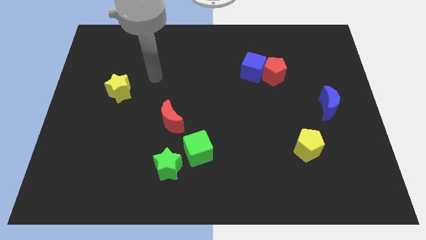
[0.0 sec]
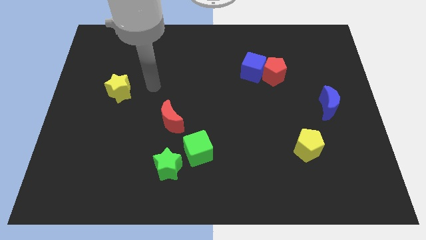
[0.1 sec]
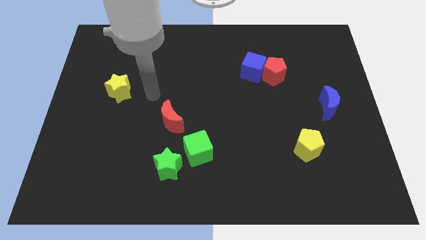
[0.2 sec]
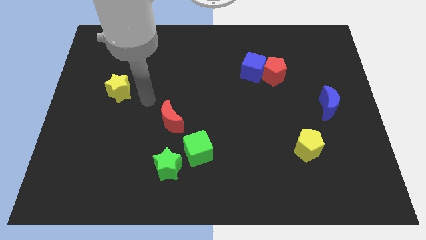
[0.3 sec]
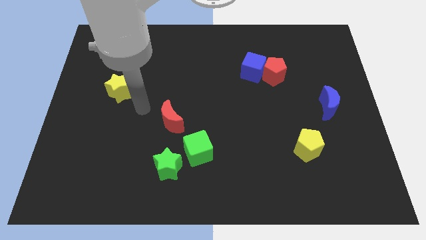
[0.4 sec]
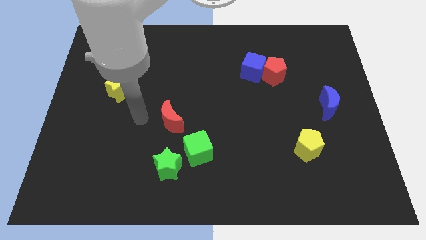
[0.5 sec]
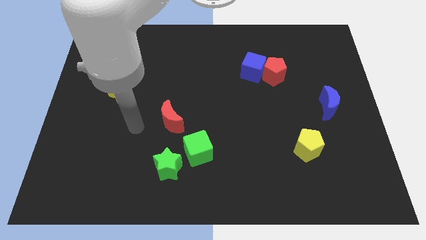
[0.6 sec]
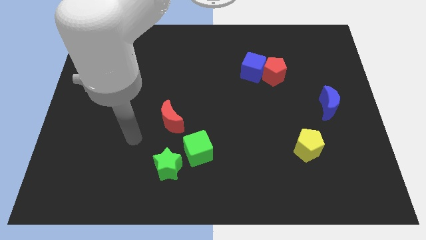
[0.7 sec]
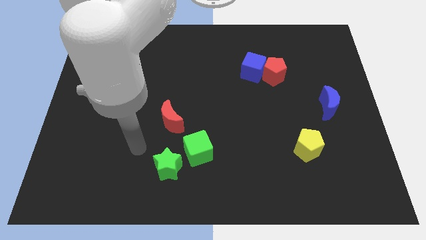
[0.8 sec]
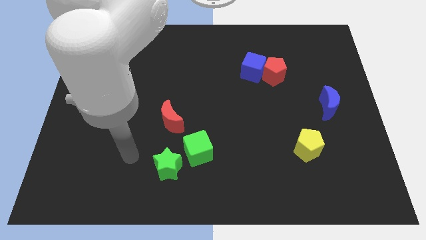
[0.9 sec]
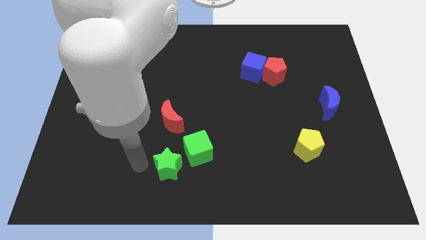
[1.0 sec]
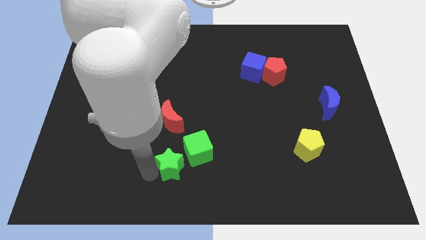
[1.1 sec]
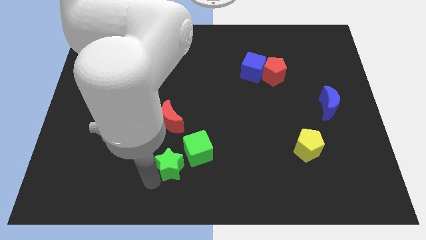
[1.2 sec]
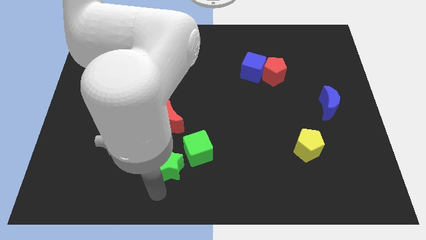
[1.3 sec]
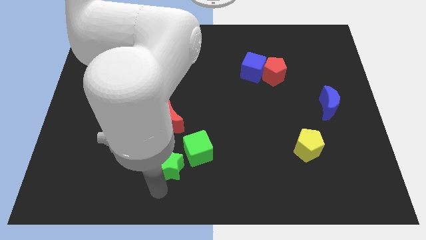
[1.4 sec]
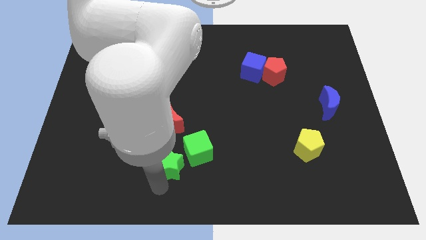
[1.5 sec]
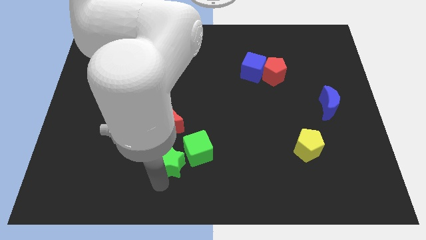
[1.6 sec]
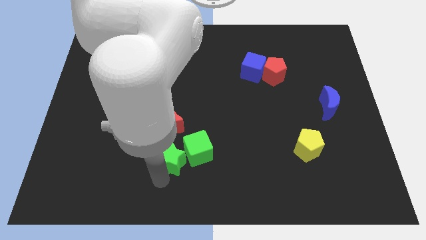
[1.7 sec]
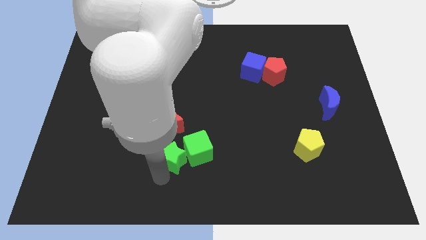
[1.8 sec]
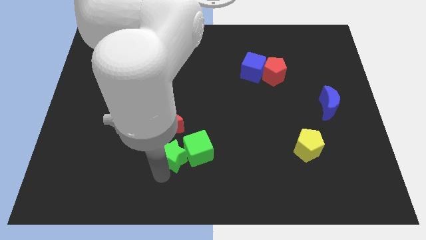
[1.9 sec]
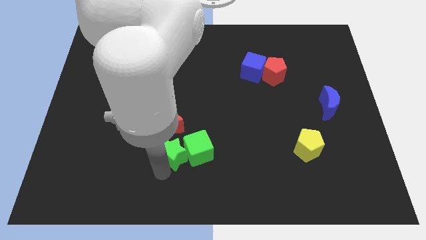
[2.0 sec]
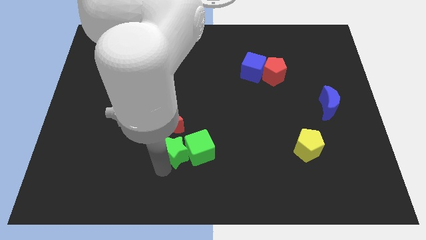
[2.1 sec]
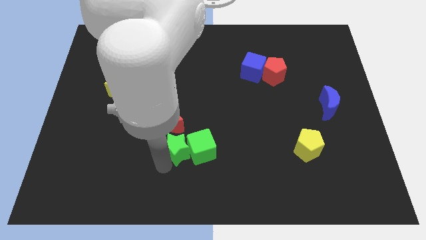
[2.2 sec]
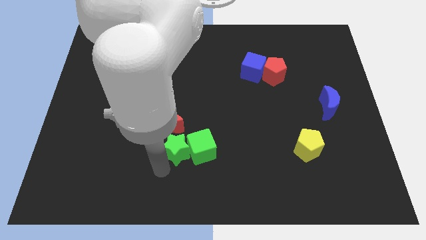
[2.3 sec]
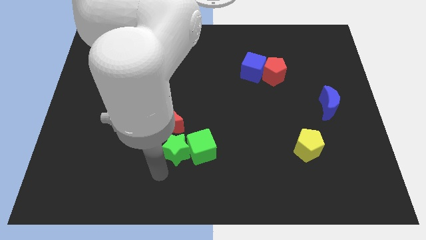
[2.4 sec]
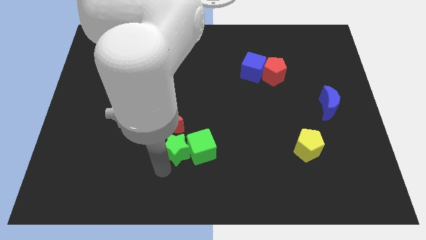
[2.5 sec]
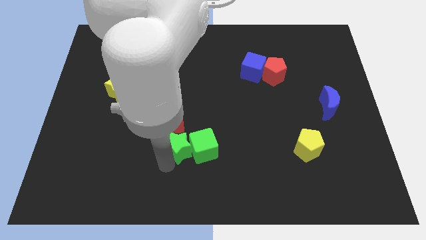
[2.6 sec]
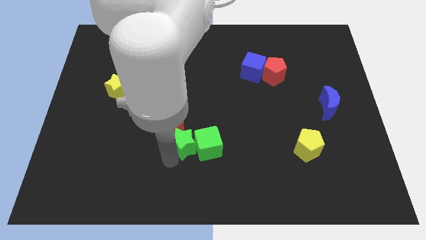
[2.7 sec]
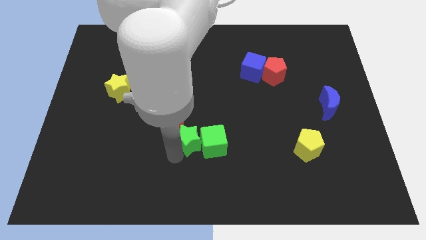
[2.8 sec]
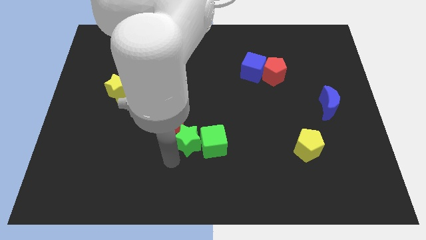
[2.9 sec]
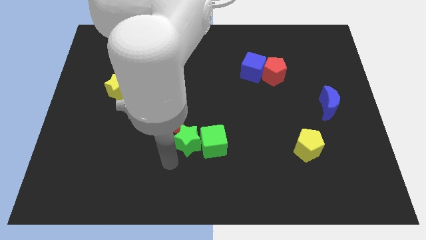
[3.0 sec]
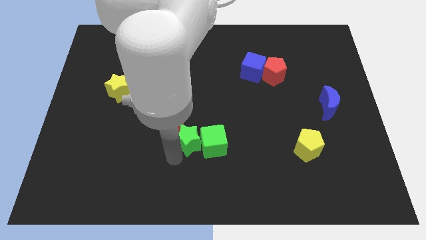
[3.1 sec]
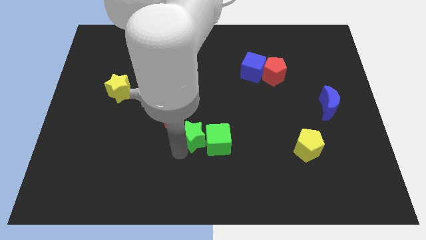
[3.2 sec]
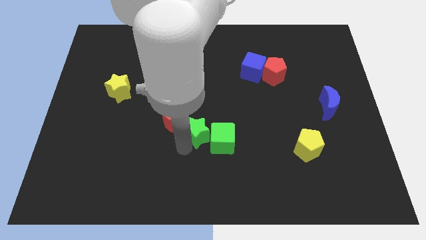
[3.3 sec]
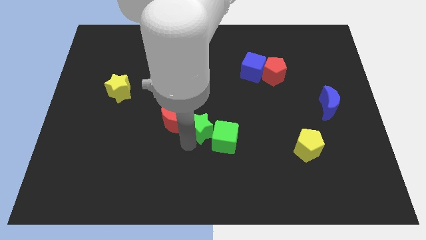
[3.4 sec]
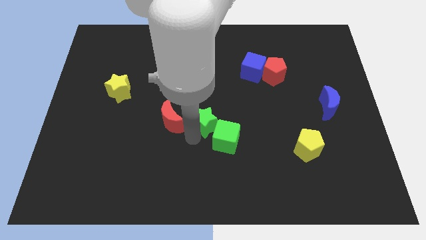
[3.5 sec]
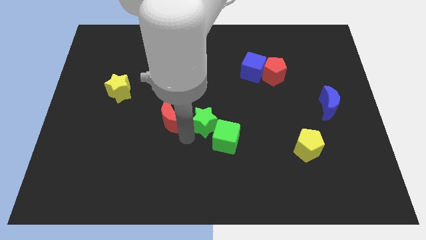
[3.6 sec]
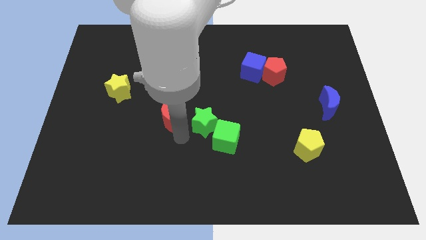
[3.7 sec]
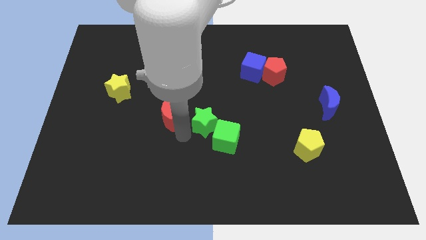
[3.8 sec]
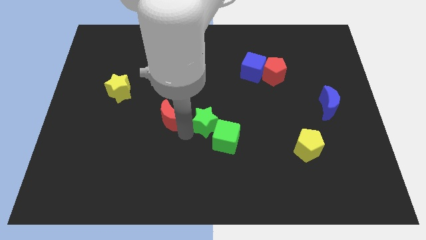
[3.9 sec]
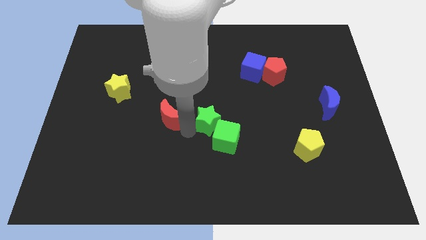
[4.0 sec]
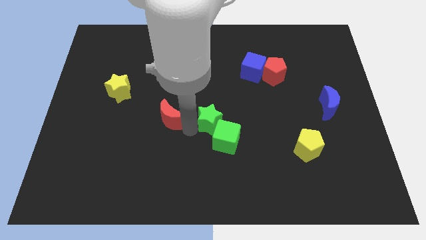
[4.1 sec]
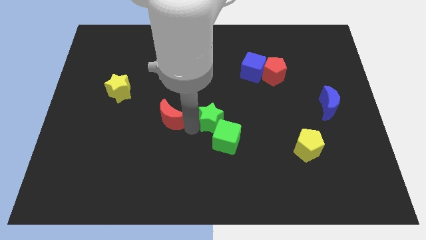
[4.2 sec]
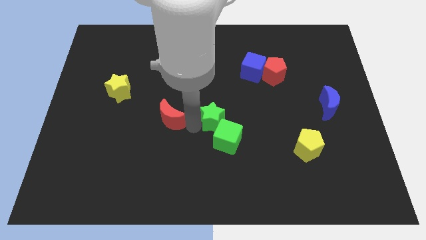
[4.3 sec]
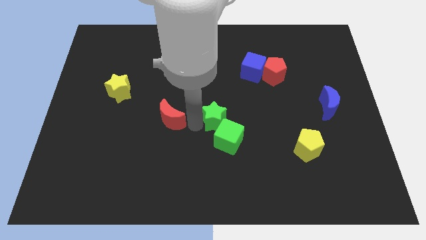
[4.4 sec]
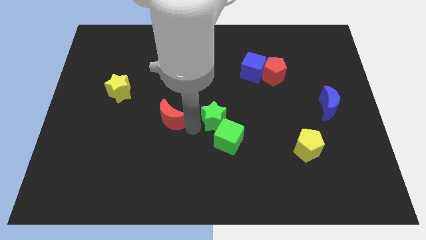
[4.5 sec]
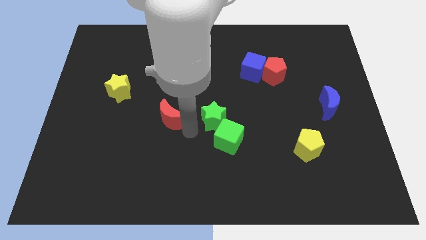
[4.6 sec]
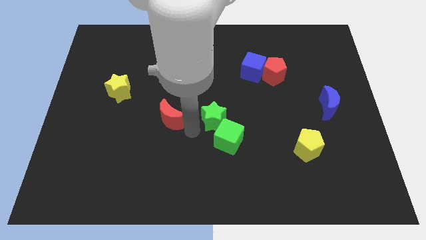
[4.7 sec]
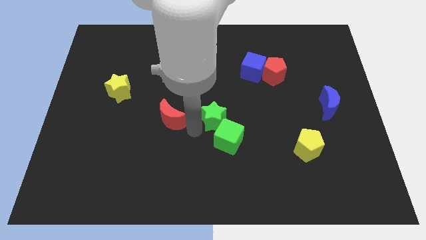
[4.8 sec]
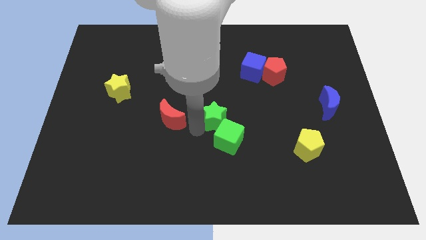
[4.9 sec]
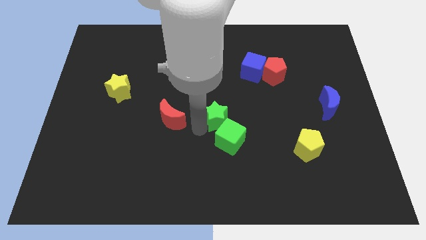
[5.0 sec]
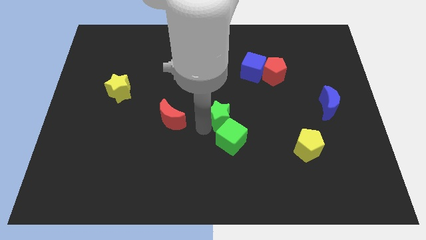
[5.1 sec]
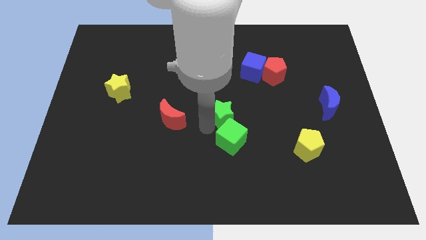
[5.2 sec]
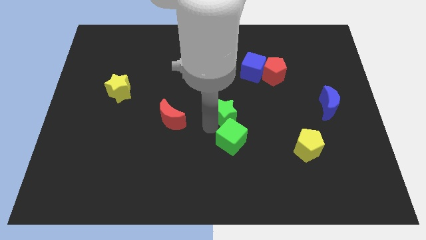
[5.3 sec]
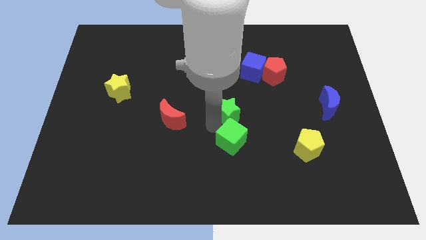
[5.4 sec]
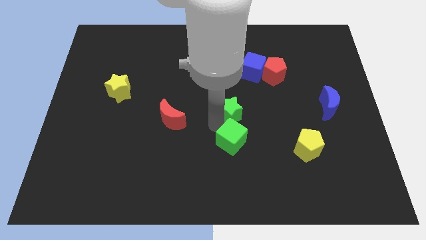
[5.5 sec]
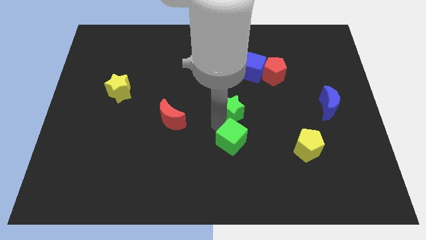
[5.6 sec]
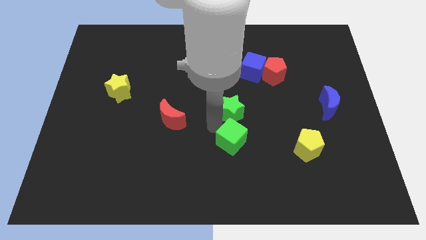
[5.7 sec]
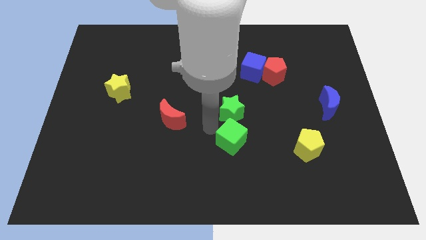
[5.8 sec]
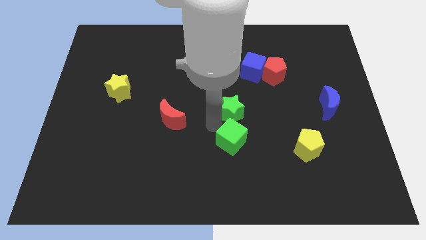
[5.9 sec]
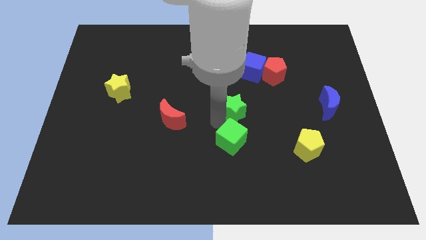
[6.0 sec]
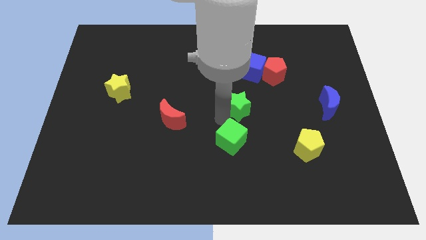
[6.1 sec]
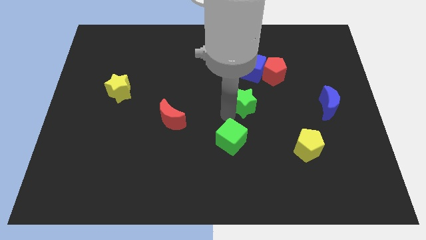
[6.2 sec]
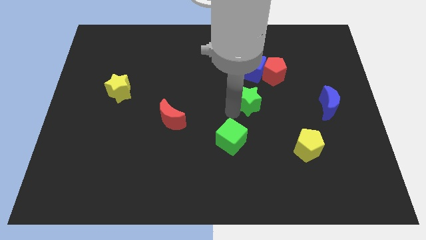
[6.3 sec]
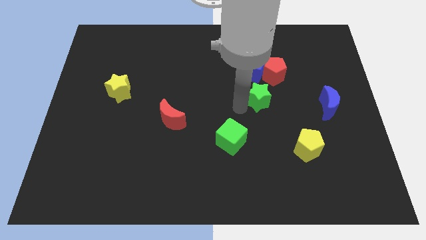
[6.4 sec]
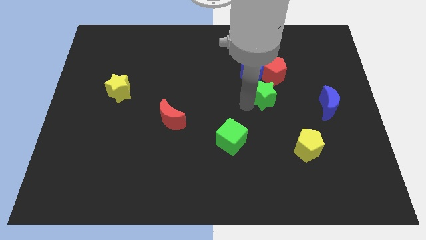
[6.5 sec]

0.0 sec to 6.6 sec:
put the green star to the bottom right side of the blue cube

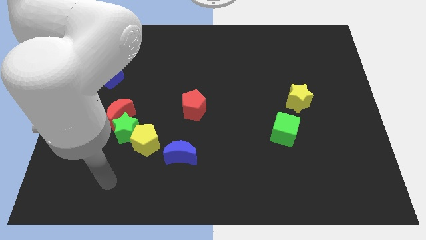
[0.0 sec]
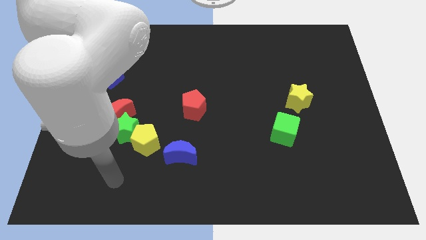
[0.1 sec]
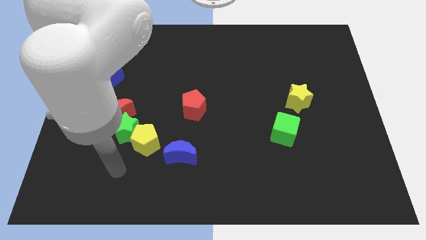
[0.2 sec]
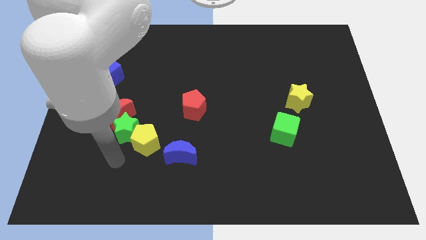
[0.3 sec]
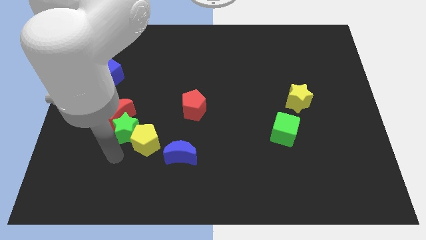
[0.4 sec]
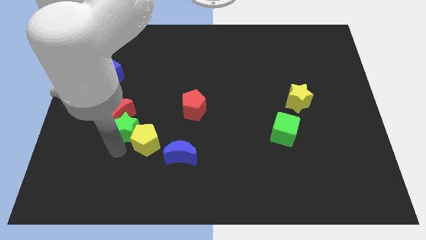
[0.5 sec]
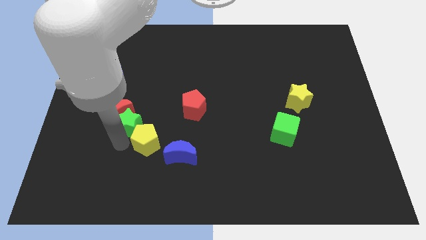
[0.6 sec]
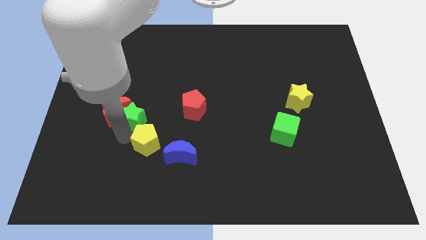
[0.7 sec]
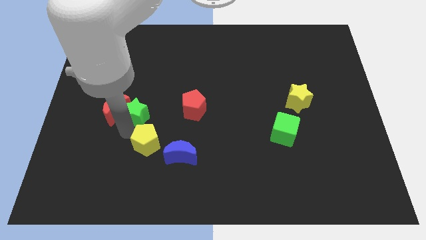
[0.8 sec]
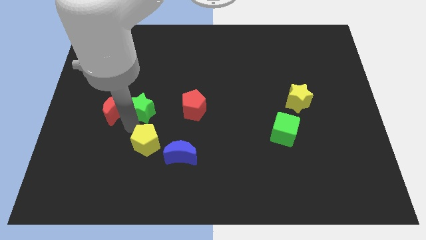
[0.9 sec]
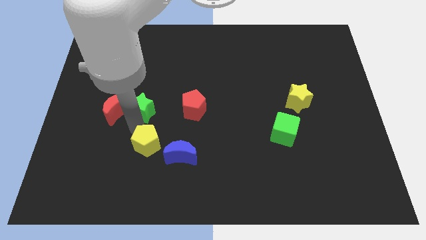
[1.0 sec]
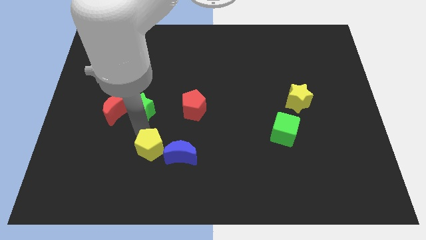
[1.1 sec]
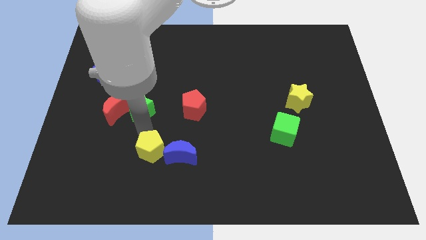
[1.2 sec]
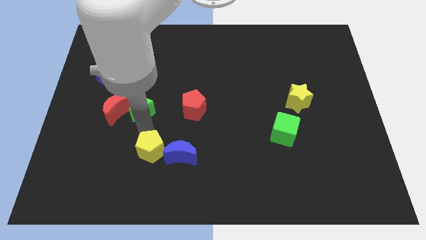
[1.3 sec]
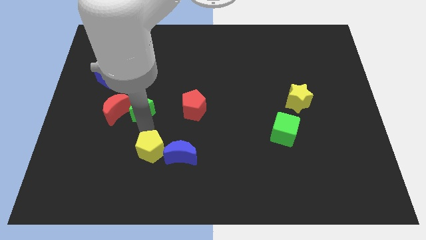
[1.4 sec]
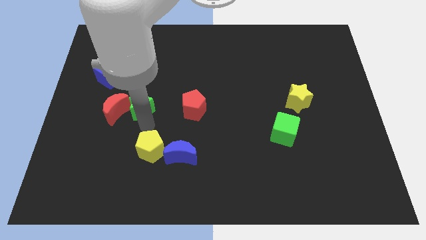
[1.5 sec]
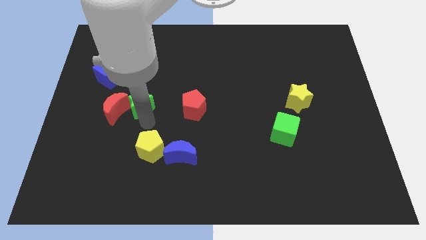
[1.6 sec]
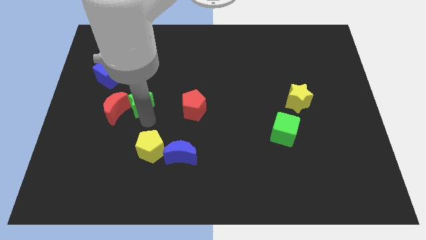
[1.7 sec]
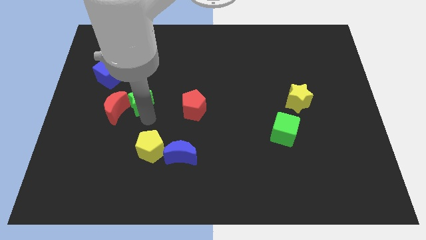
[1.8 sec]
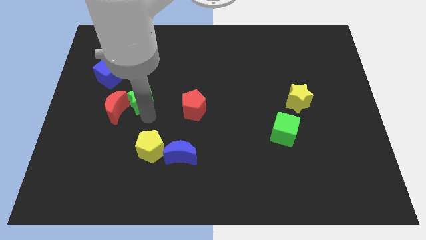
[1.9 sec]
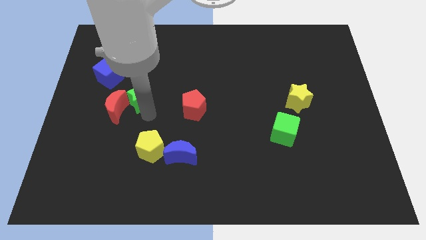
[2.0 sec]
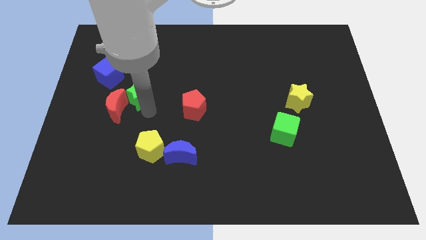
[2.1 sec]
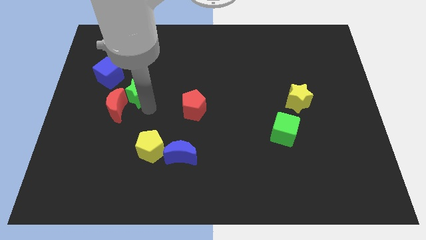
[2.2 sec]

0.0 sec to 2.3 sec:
put the green star above the red moon
